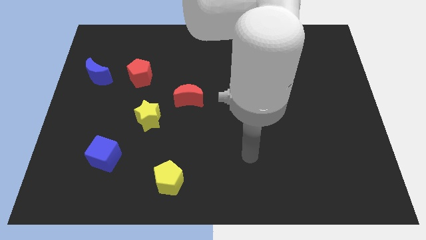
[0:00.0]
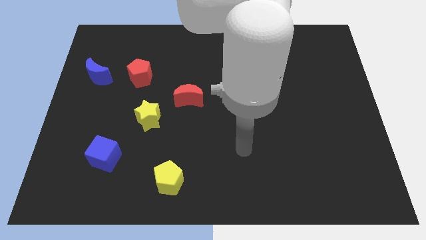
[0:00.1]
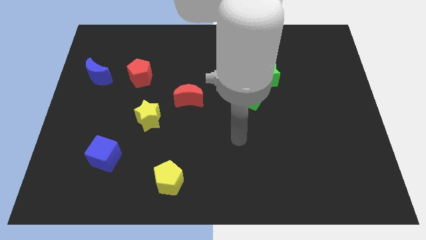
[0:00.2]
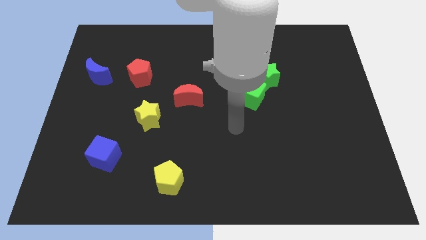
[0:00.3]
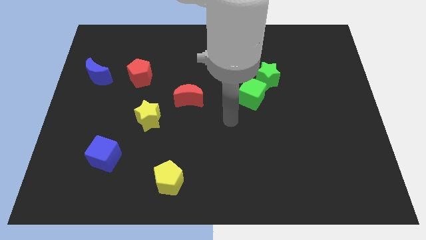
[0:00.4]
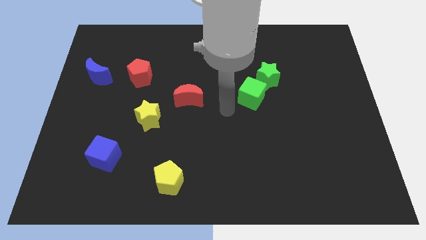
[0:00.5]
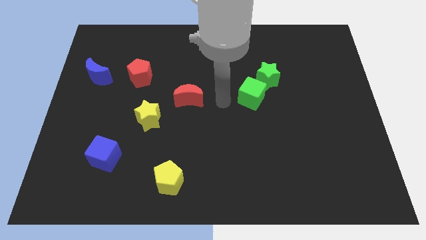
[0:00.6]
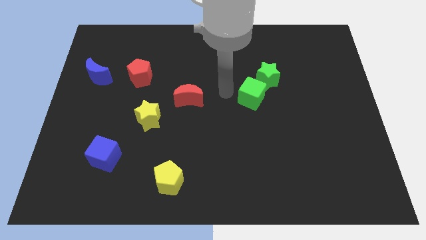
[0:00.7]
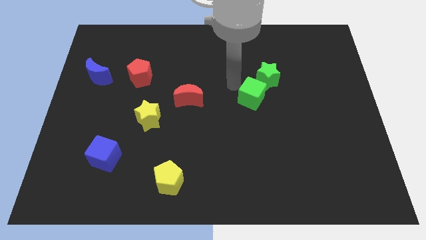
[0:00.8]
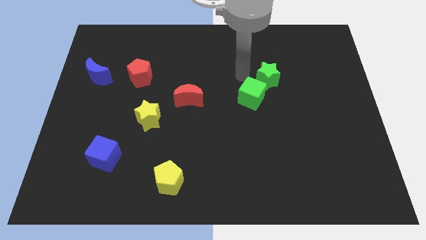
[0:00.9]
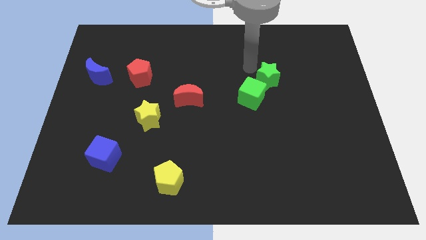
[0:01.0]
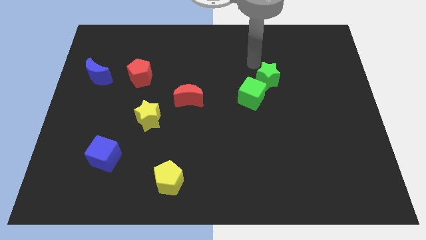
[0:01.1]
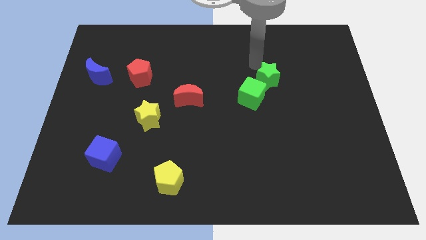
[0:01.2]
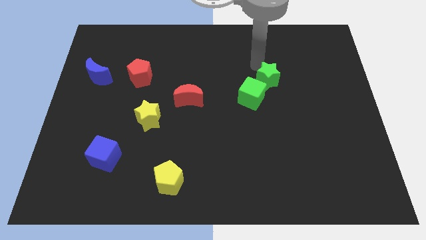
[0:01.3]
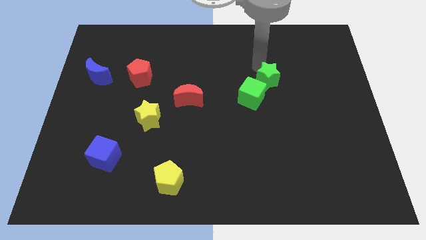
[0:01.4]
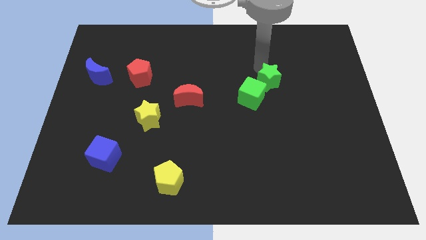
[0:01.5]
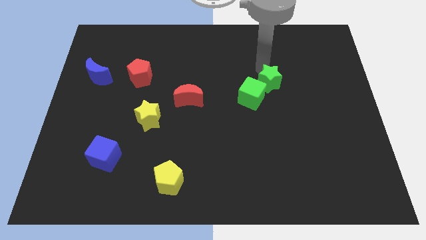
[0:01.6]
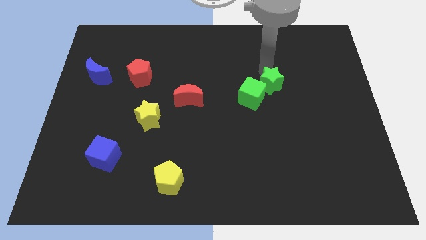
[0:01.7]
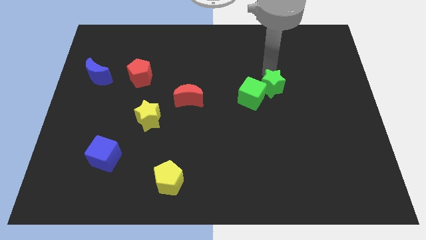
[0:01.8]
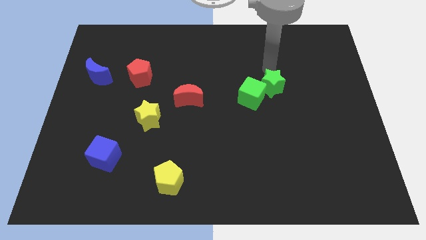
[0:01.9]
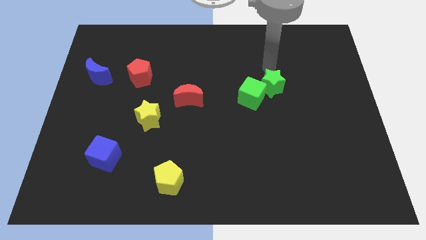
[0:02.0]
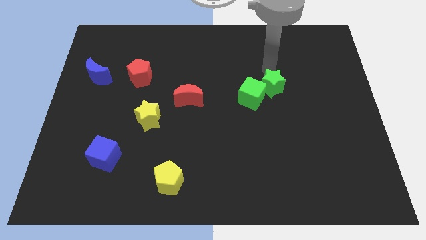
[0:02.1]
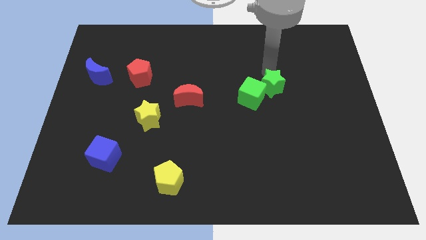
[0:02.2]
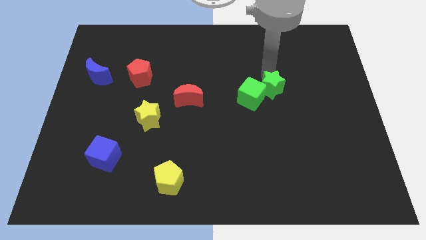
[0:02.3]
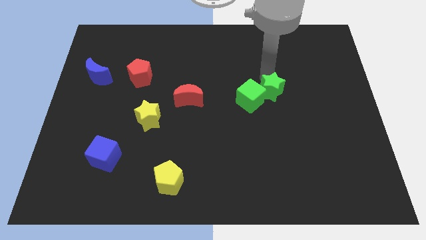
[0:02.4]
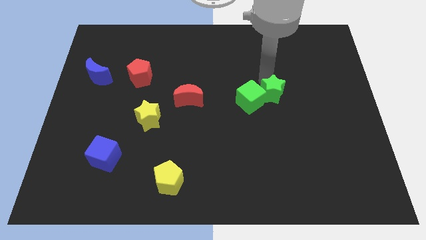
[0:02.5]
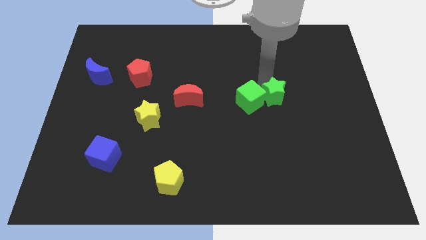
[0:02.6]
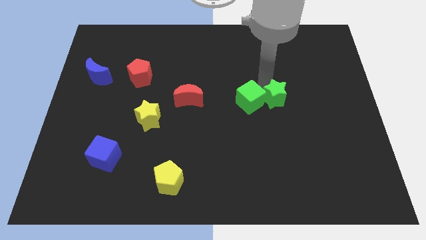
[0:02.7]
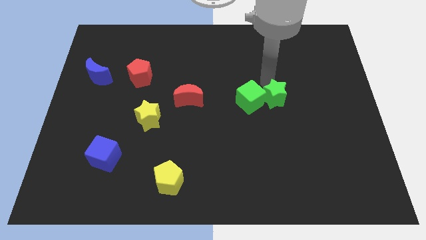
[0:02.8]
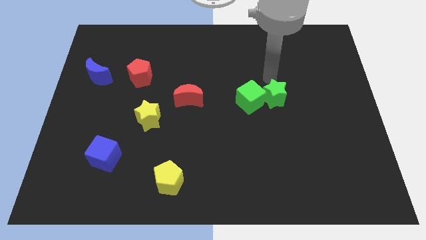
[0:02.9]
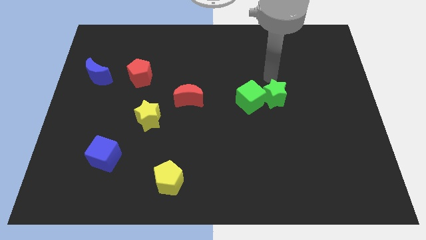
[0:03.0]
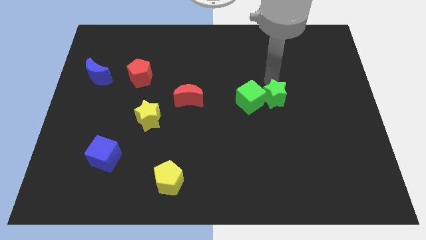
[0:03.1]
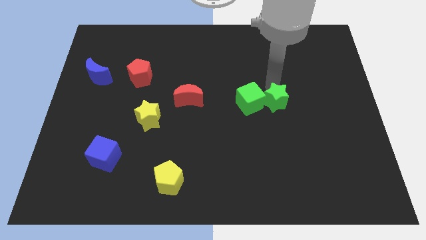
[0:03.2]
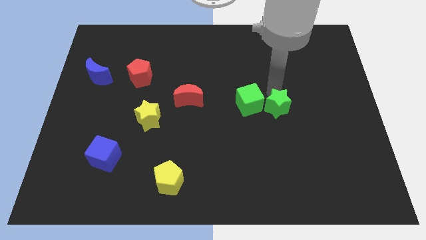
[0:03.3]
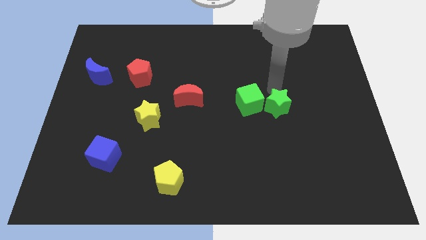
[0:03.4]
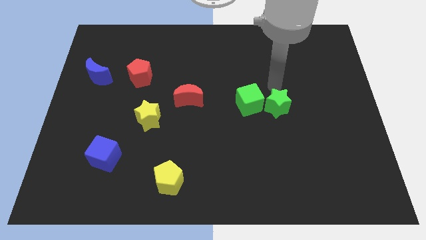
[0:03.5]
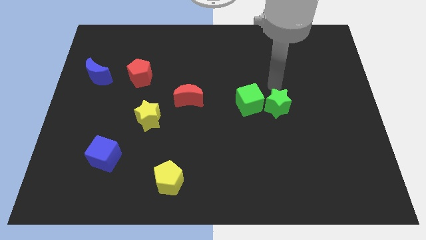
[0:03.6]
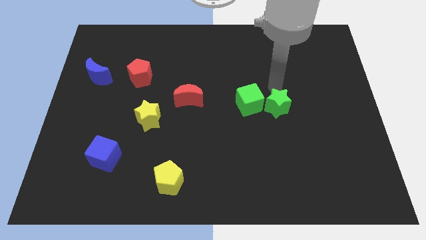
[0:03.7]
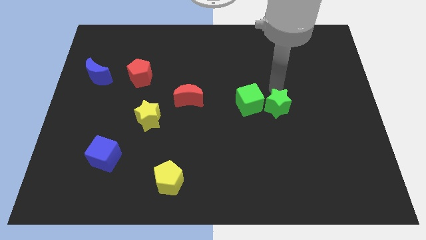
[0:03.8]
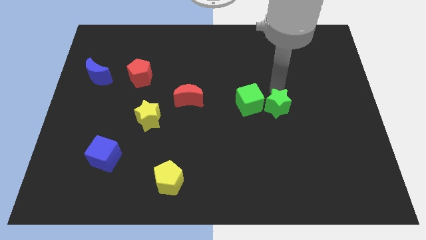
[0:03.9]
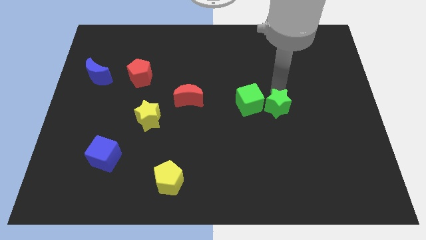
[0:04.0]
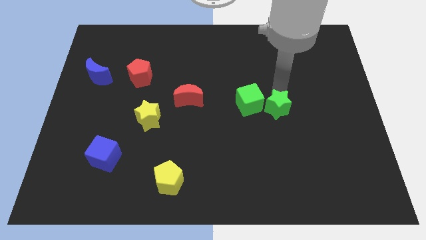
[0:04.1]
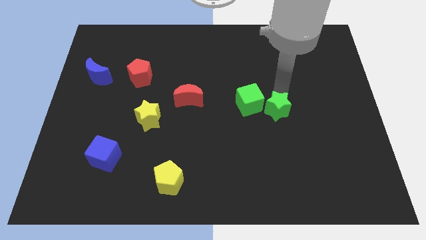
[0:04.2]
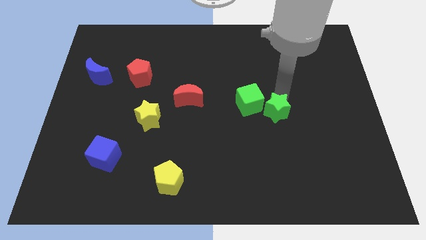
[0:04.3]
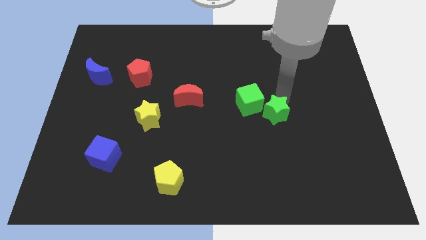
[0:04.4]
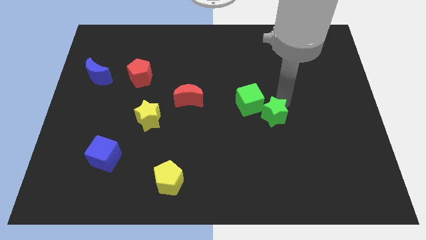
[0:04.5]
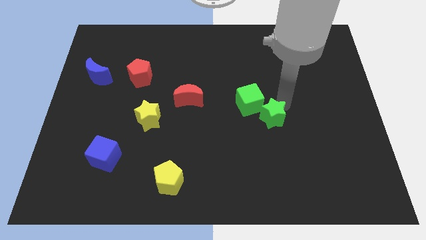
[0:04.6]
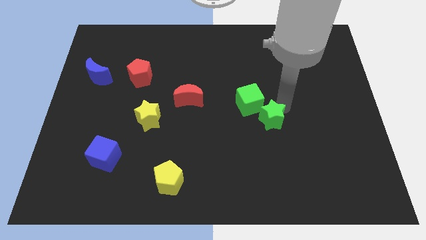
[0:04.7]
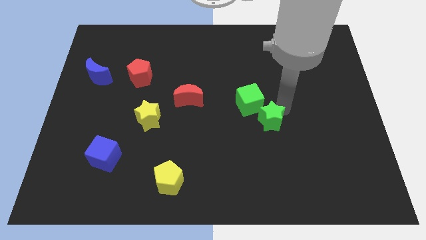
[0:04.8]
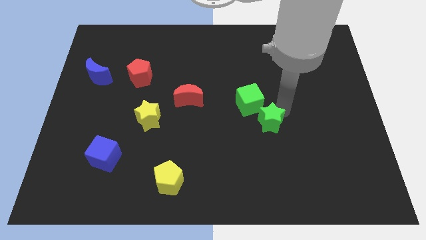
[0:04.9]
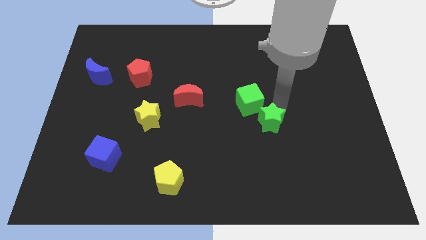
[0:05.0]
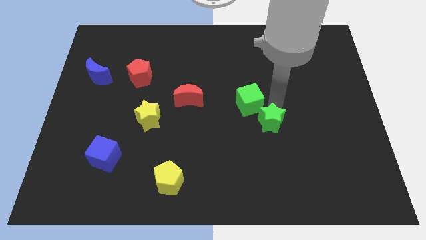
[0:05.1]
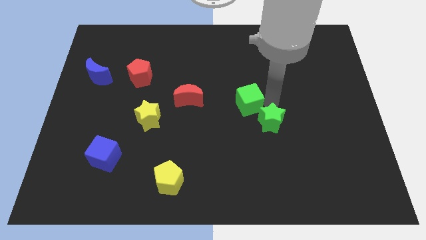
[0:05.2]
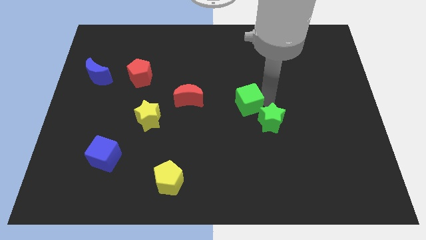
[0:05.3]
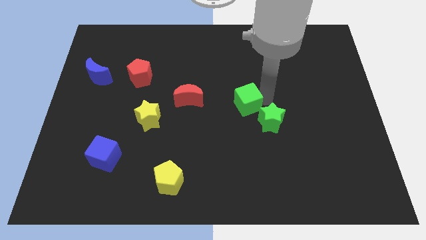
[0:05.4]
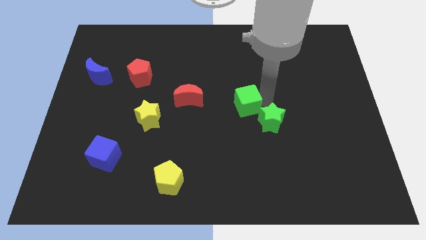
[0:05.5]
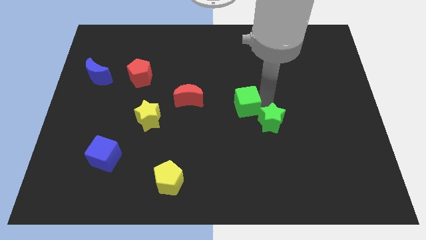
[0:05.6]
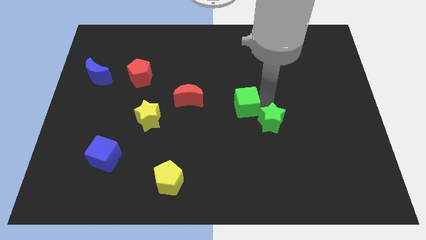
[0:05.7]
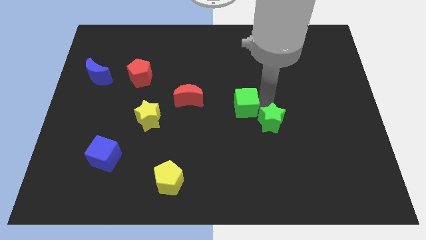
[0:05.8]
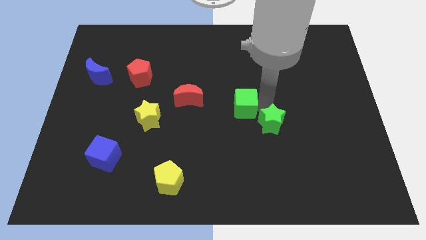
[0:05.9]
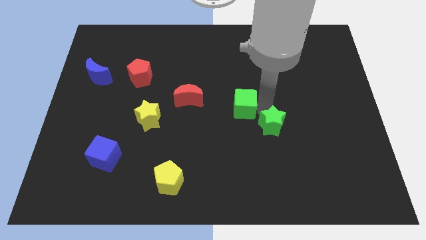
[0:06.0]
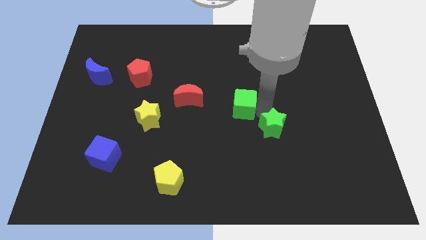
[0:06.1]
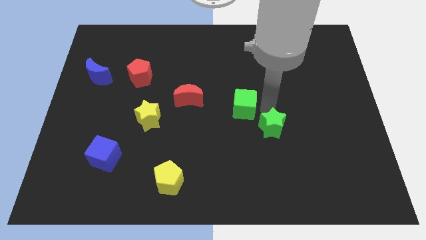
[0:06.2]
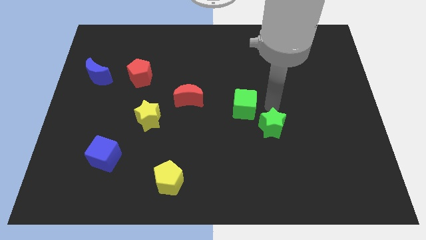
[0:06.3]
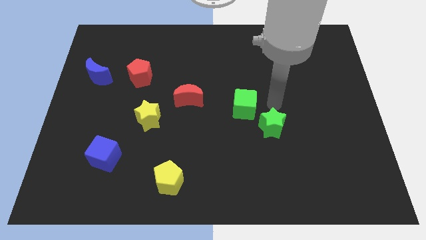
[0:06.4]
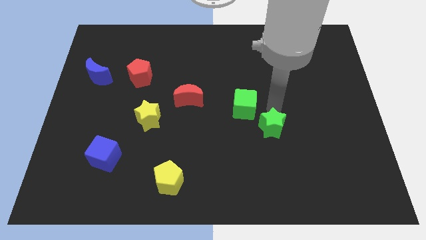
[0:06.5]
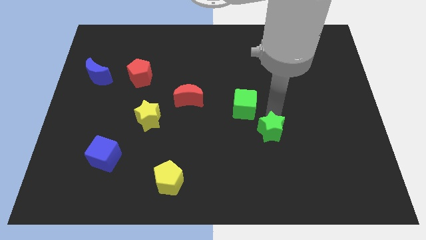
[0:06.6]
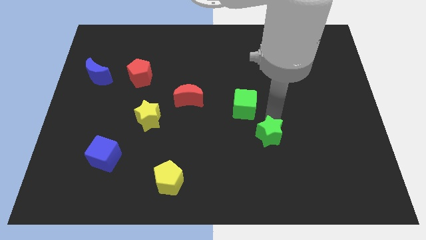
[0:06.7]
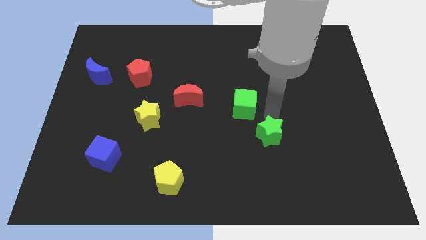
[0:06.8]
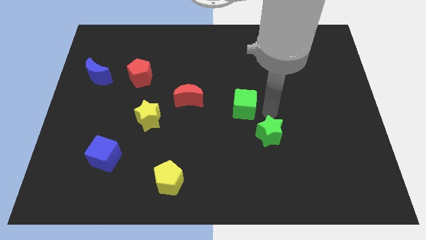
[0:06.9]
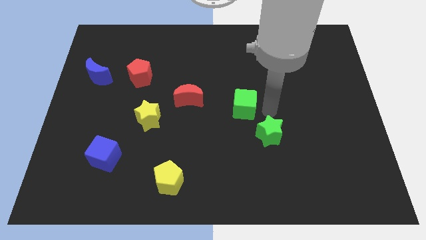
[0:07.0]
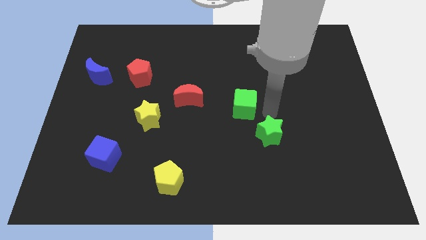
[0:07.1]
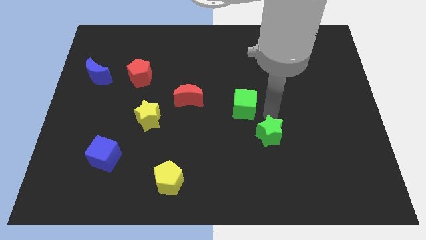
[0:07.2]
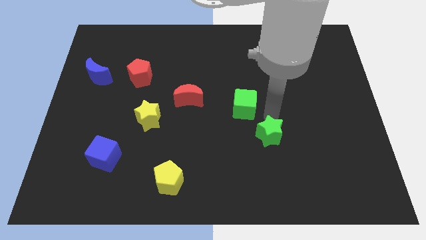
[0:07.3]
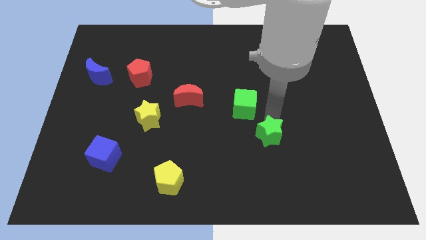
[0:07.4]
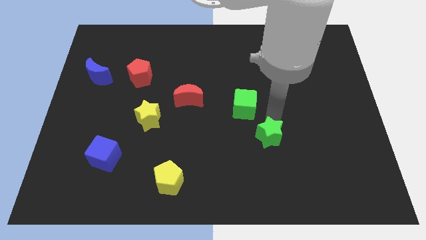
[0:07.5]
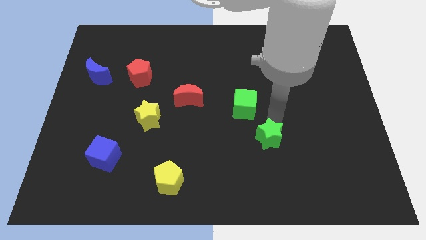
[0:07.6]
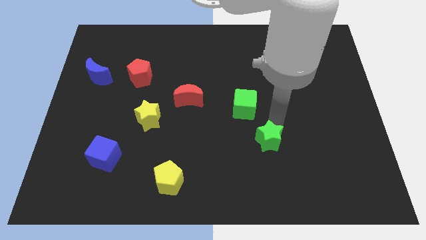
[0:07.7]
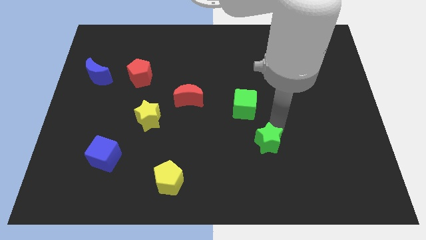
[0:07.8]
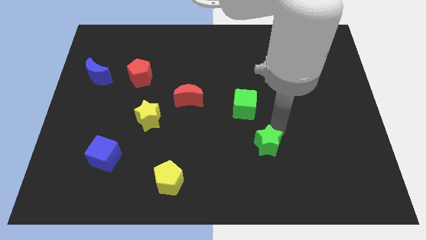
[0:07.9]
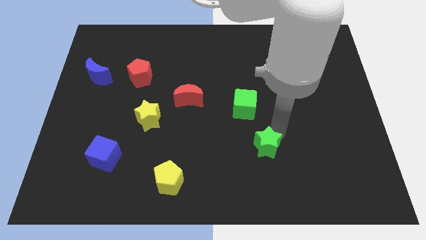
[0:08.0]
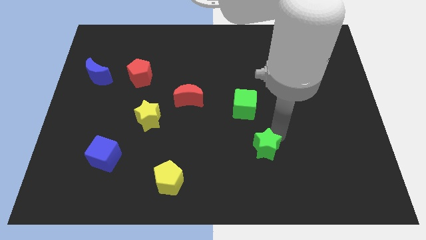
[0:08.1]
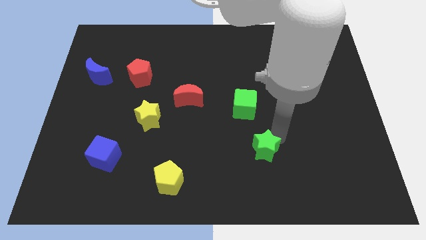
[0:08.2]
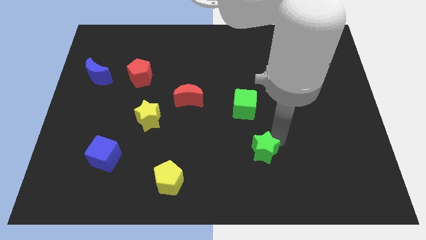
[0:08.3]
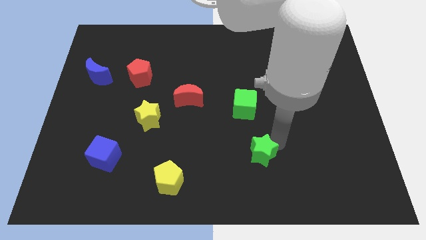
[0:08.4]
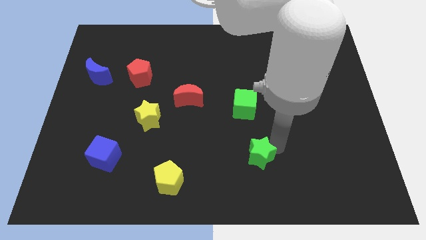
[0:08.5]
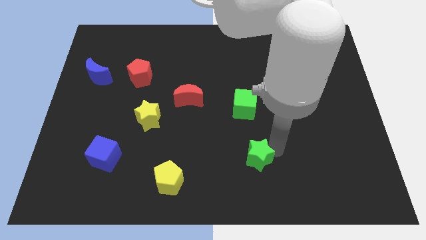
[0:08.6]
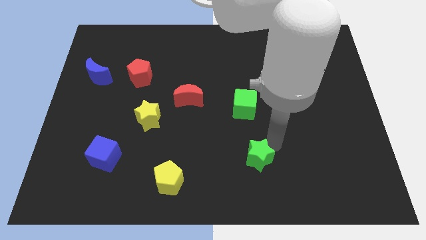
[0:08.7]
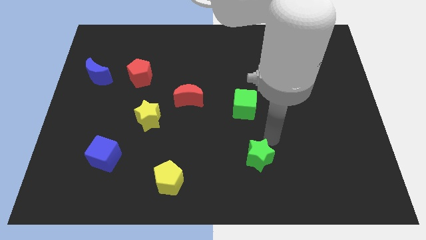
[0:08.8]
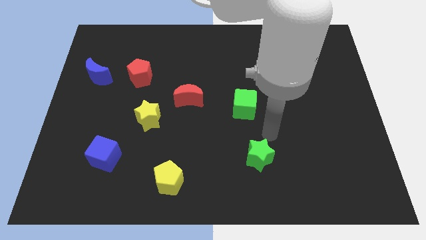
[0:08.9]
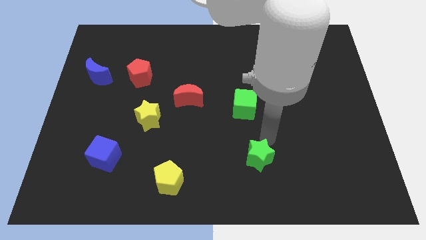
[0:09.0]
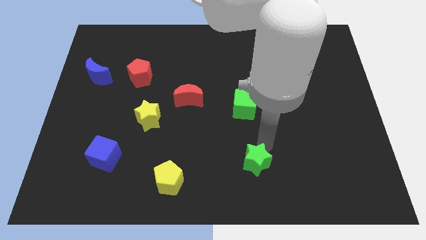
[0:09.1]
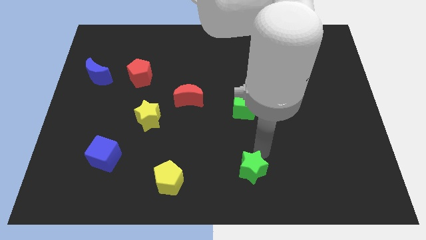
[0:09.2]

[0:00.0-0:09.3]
put the green star to the bottom side
